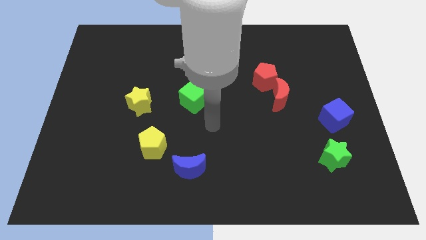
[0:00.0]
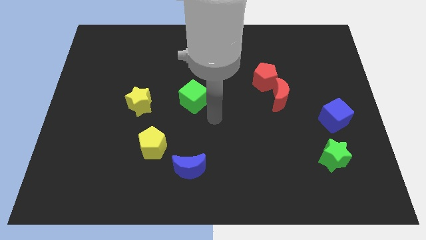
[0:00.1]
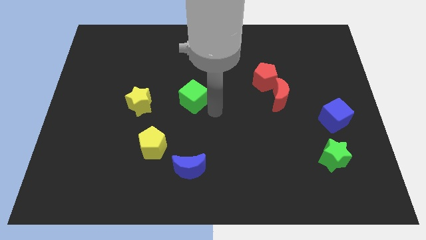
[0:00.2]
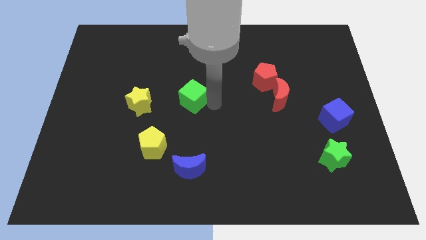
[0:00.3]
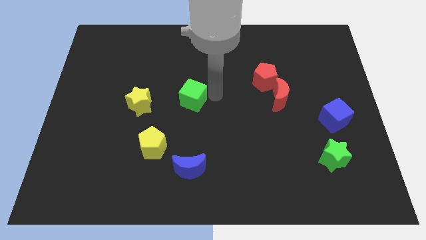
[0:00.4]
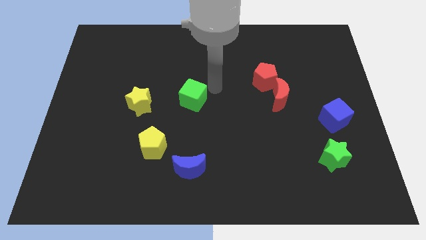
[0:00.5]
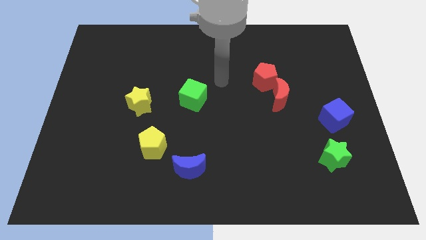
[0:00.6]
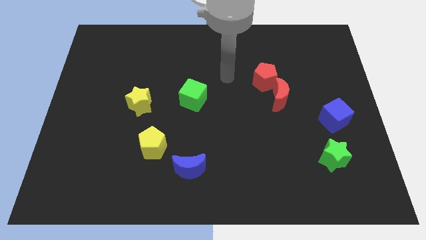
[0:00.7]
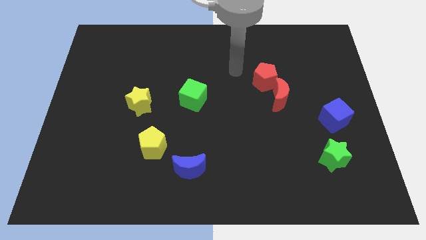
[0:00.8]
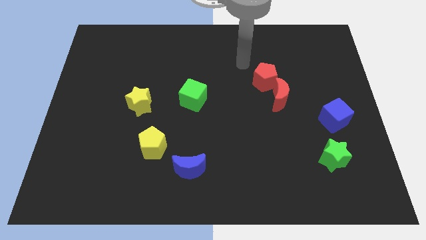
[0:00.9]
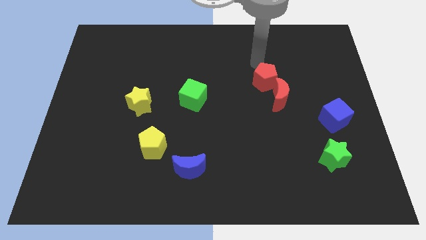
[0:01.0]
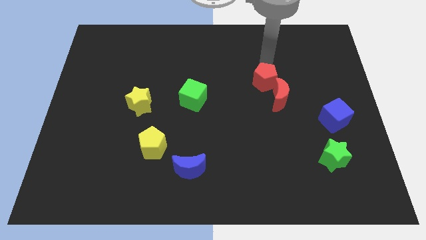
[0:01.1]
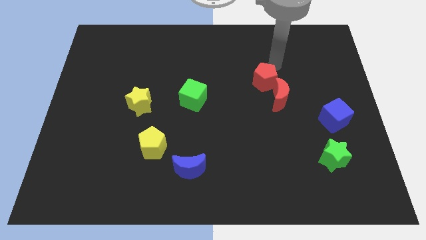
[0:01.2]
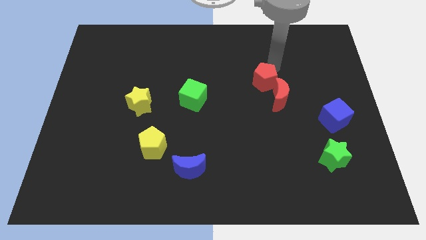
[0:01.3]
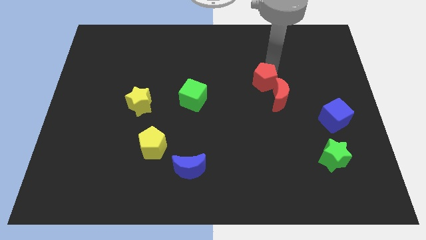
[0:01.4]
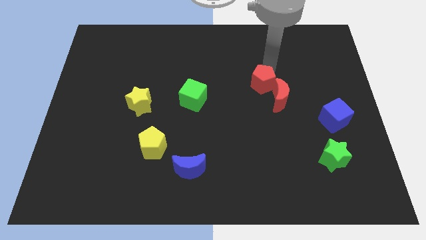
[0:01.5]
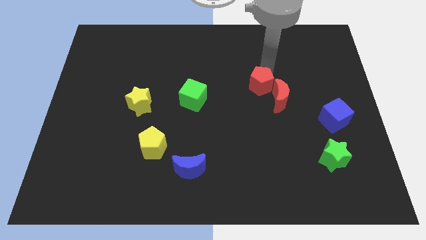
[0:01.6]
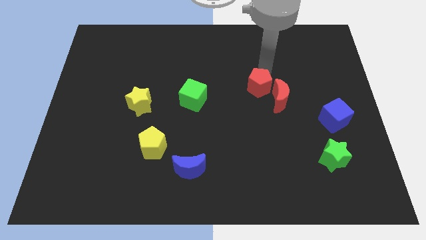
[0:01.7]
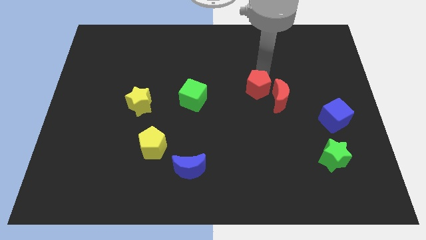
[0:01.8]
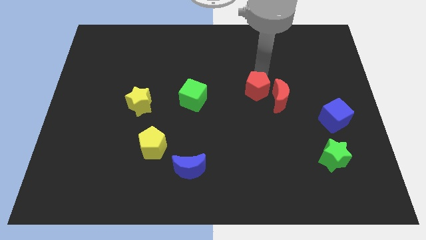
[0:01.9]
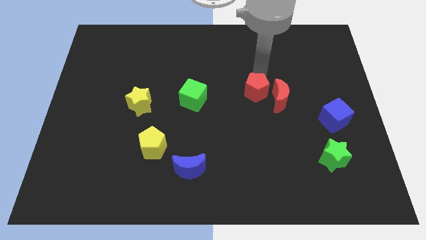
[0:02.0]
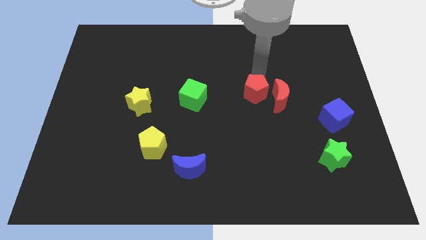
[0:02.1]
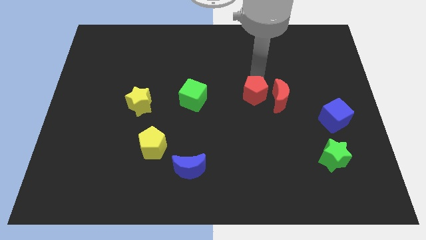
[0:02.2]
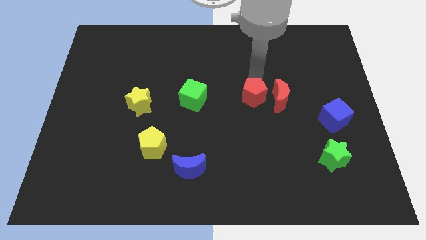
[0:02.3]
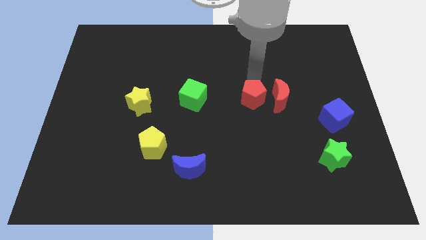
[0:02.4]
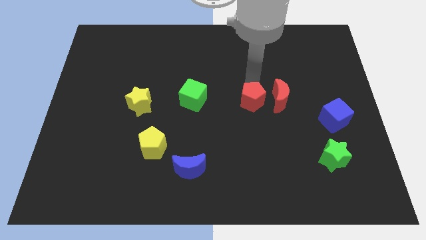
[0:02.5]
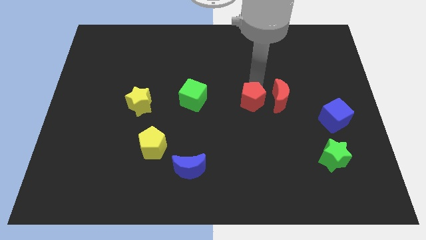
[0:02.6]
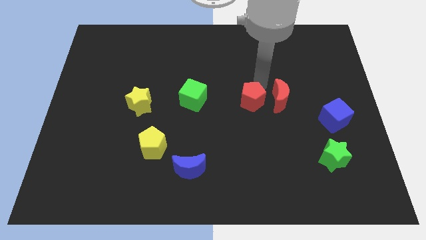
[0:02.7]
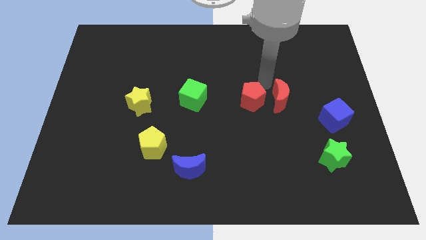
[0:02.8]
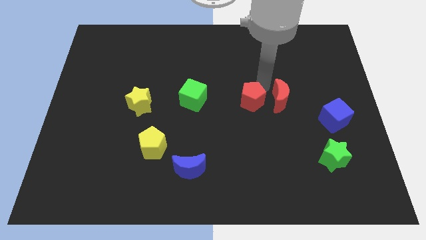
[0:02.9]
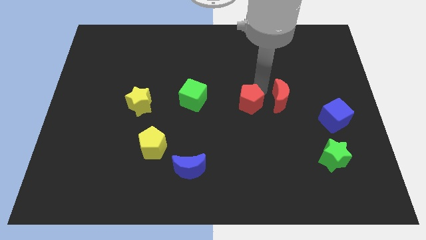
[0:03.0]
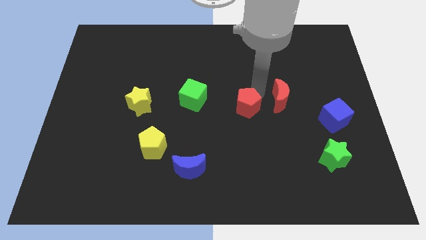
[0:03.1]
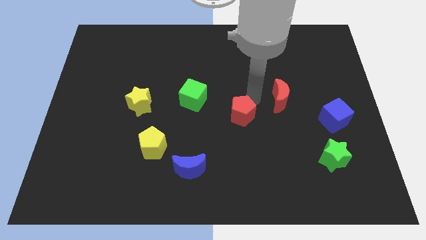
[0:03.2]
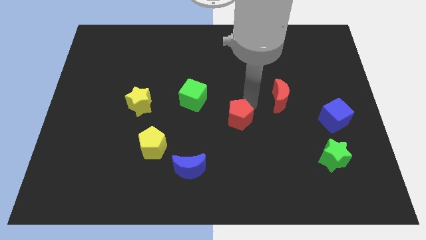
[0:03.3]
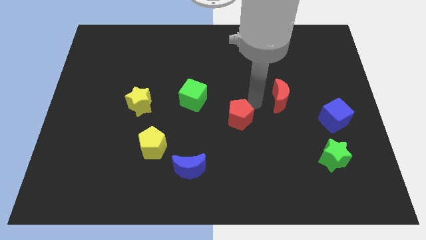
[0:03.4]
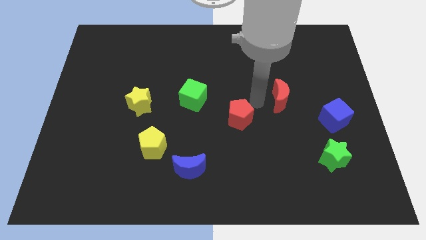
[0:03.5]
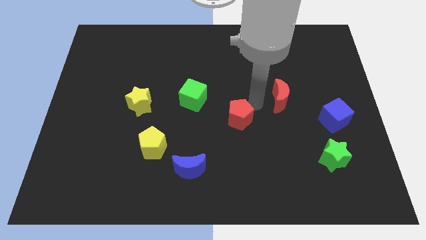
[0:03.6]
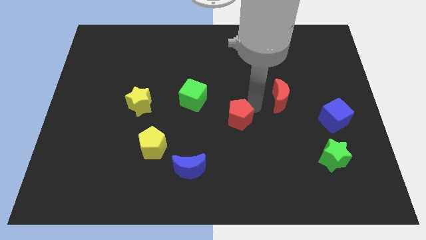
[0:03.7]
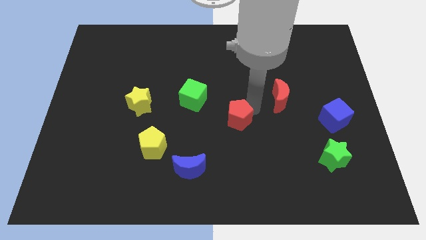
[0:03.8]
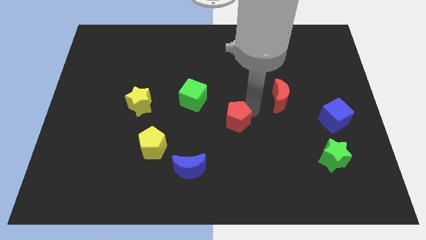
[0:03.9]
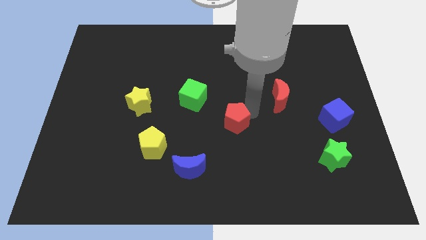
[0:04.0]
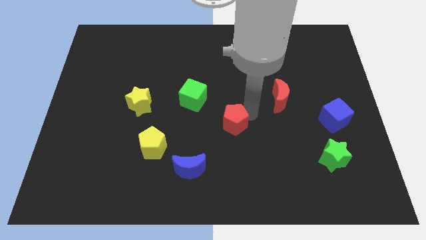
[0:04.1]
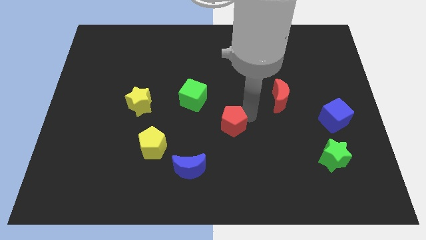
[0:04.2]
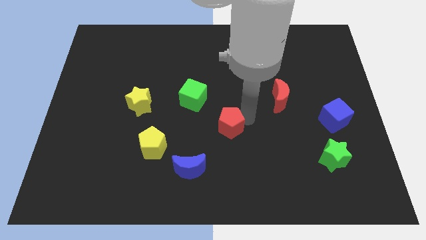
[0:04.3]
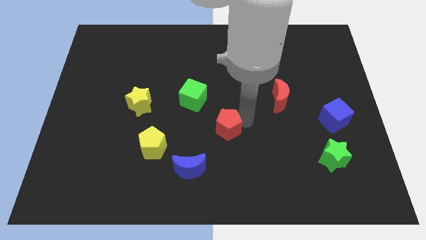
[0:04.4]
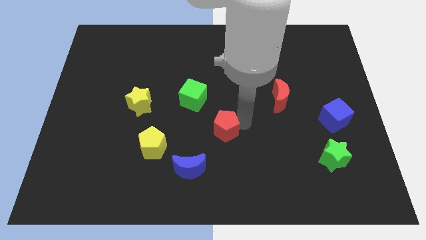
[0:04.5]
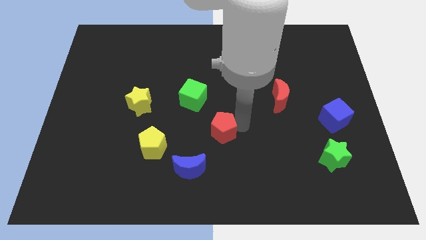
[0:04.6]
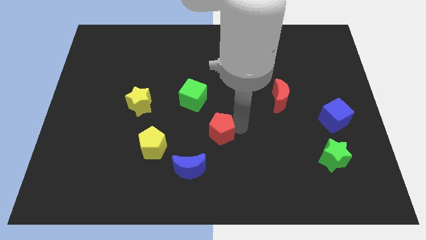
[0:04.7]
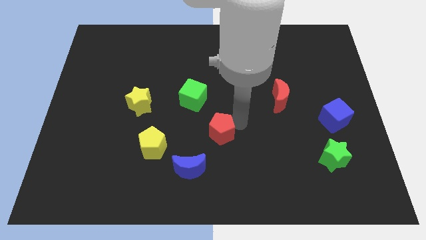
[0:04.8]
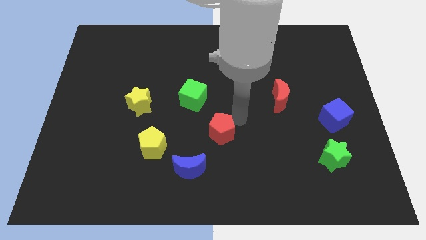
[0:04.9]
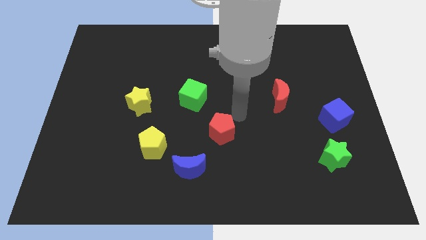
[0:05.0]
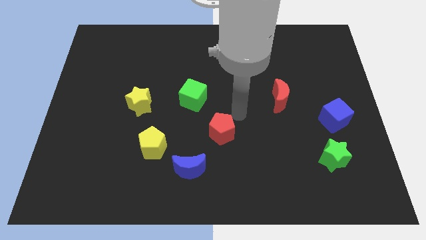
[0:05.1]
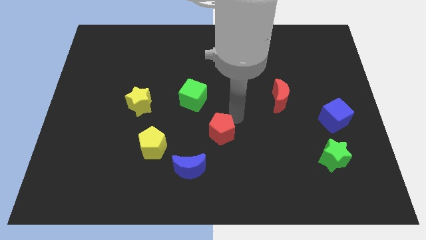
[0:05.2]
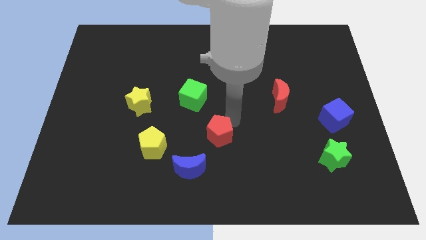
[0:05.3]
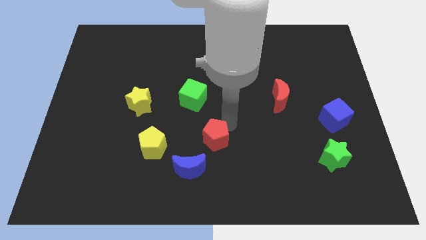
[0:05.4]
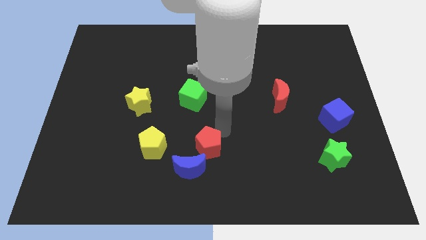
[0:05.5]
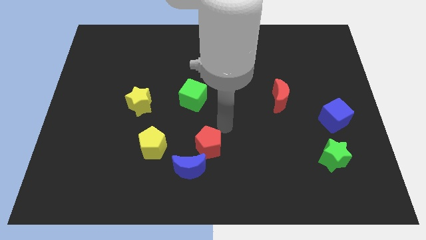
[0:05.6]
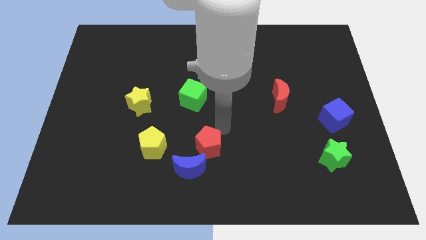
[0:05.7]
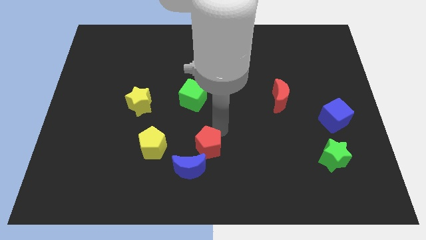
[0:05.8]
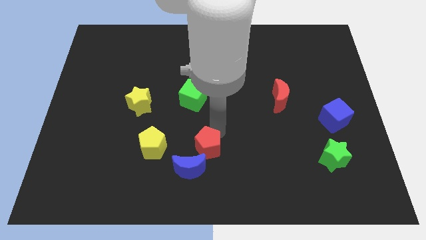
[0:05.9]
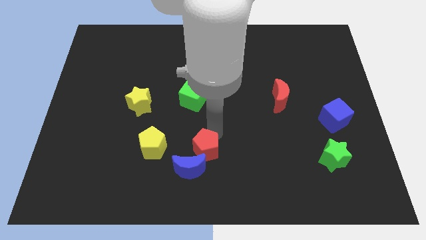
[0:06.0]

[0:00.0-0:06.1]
push the red pentagon to the blue moon

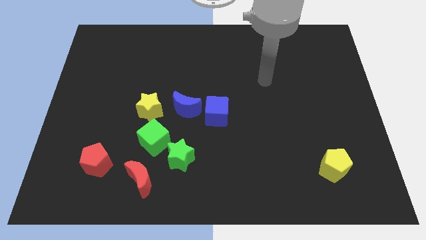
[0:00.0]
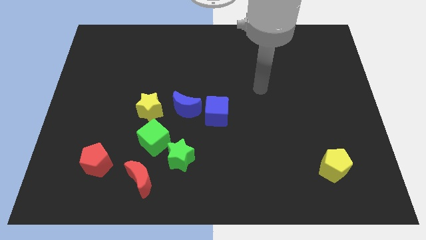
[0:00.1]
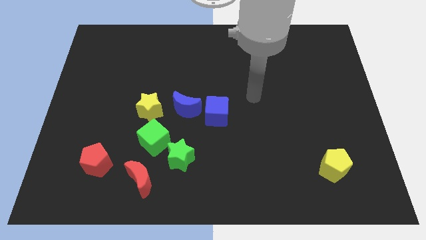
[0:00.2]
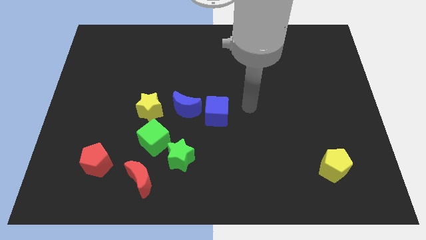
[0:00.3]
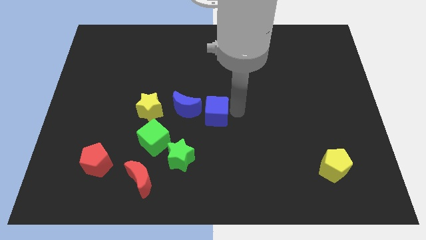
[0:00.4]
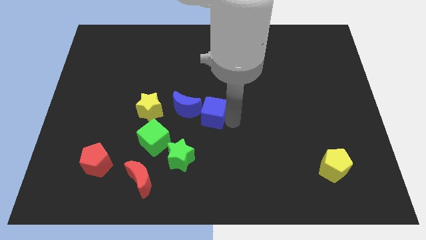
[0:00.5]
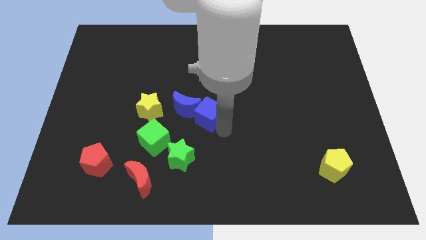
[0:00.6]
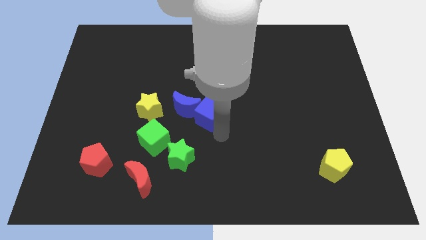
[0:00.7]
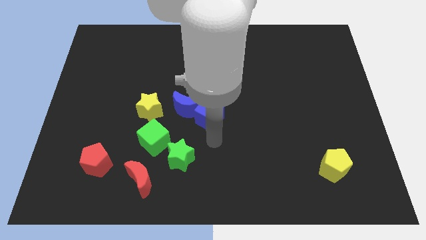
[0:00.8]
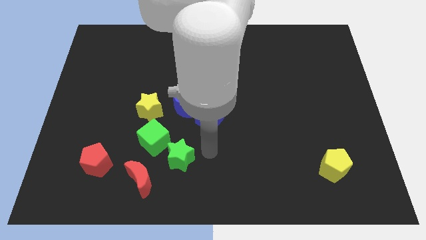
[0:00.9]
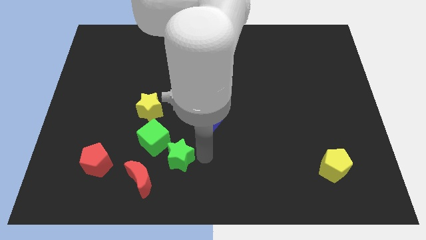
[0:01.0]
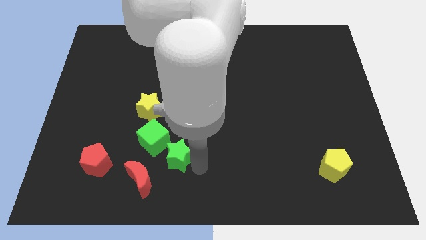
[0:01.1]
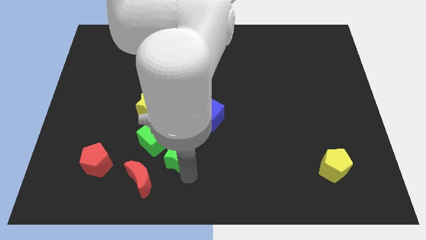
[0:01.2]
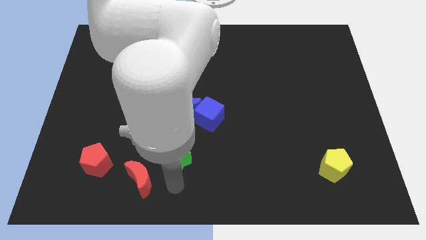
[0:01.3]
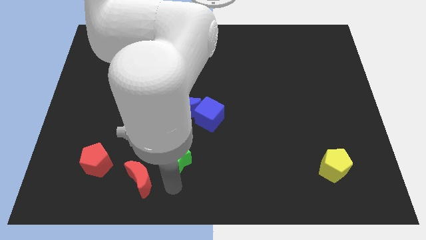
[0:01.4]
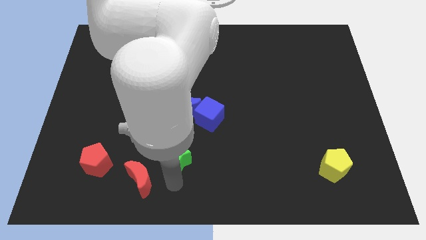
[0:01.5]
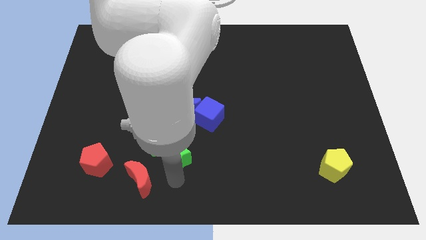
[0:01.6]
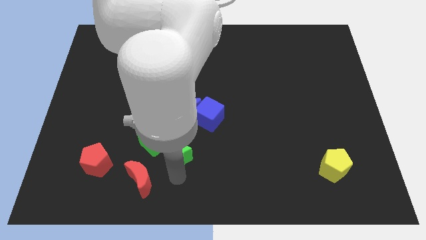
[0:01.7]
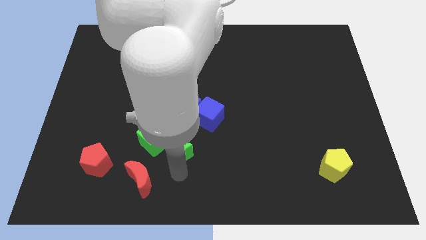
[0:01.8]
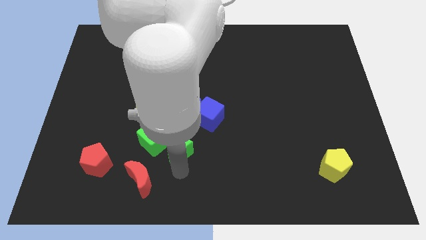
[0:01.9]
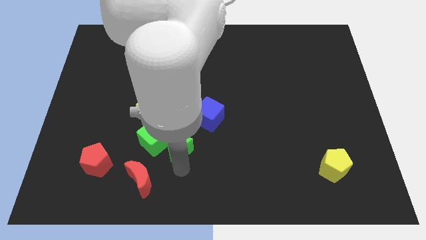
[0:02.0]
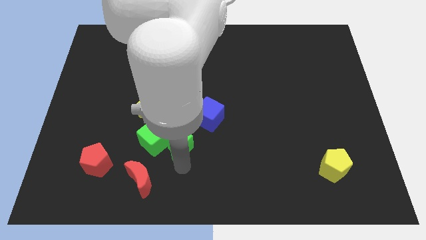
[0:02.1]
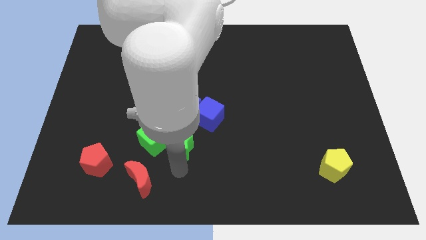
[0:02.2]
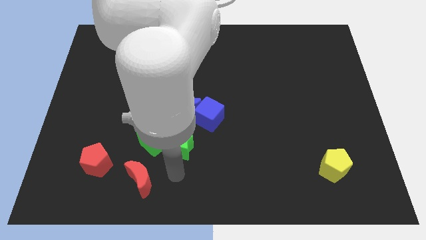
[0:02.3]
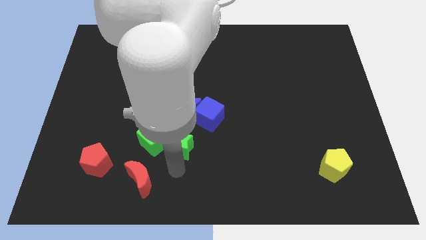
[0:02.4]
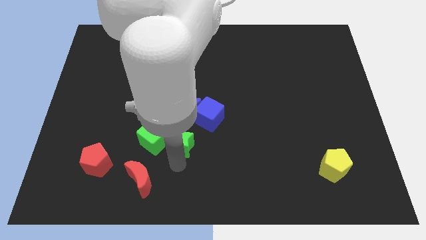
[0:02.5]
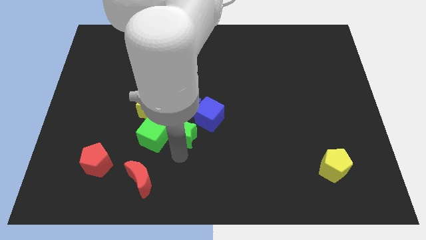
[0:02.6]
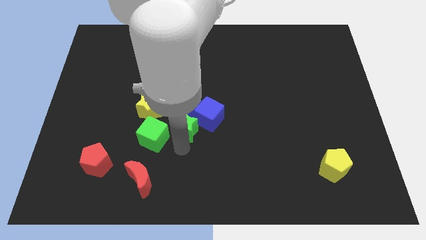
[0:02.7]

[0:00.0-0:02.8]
slide the green star towards the blue moon
